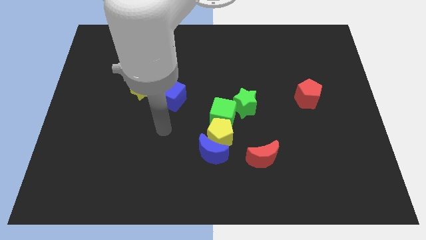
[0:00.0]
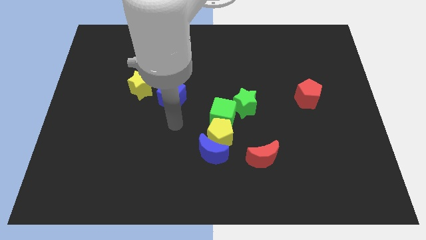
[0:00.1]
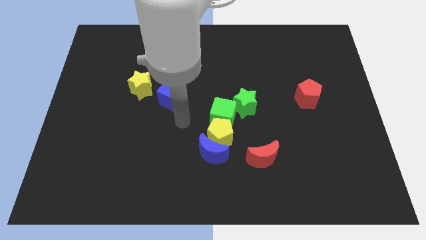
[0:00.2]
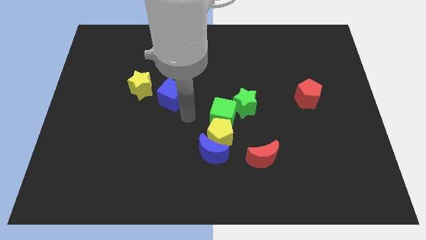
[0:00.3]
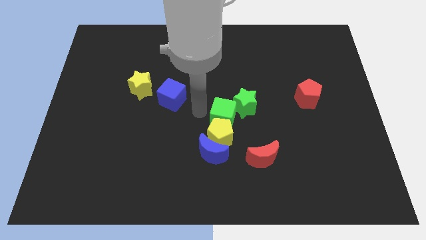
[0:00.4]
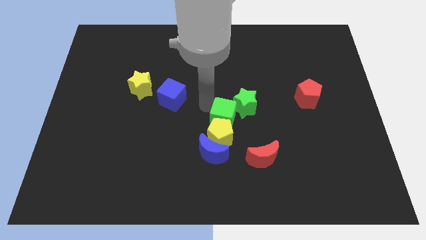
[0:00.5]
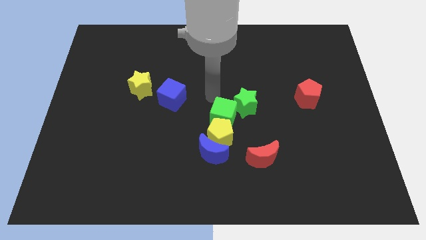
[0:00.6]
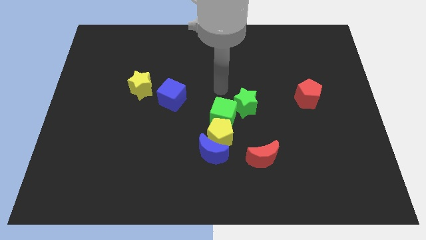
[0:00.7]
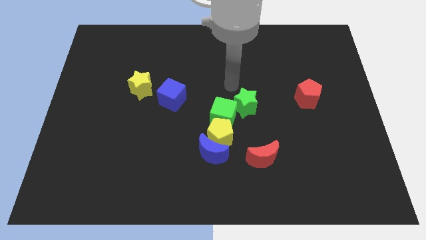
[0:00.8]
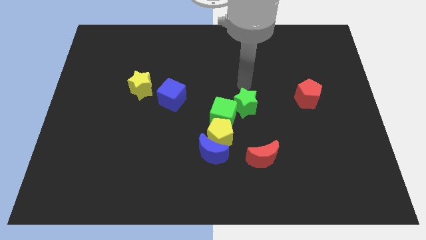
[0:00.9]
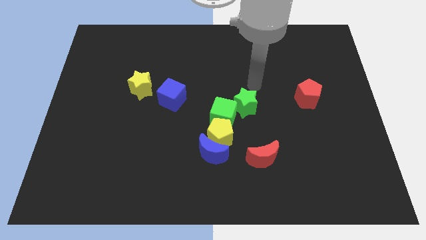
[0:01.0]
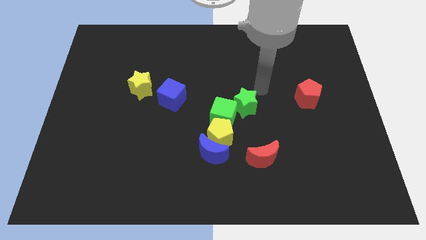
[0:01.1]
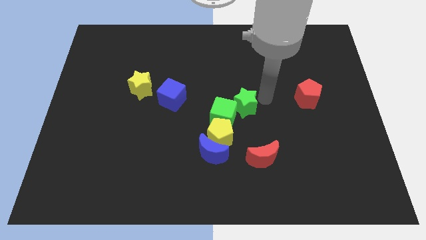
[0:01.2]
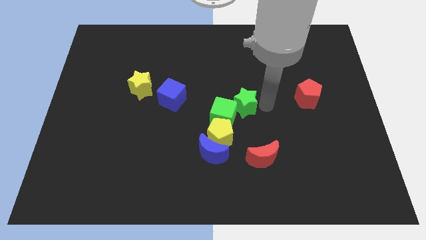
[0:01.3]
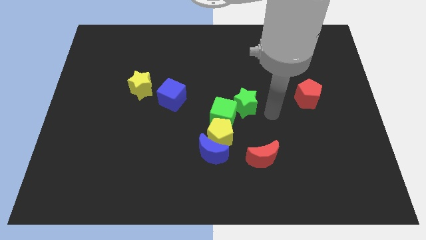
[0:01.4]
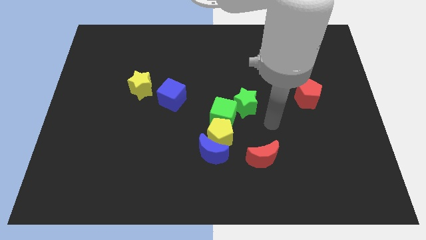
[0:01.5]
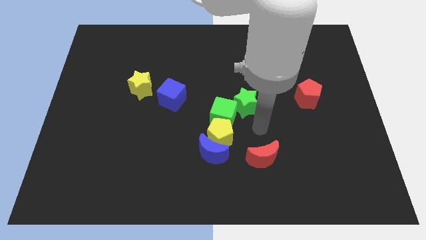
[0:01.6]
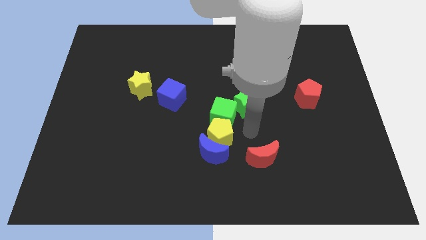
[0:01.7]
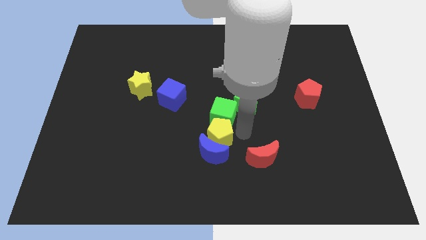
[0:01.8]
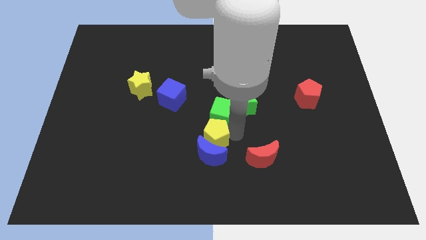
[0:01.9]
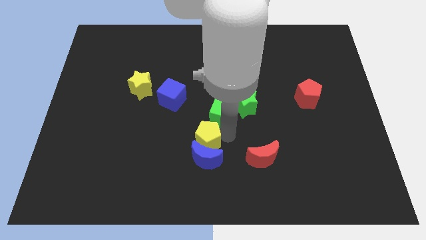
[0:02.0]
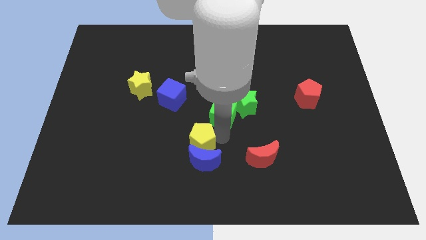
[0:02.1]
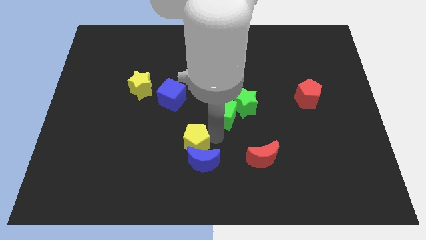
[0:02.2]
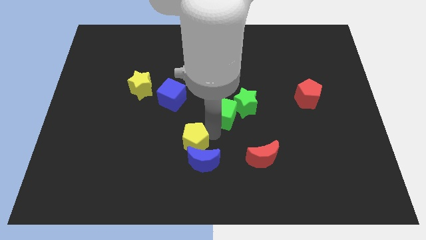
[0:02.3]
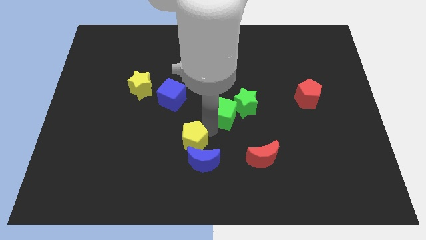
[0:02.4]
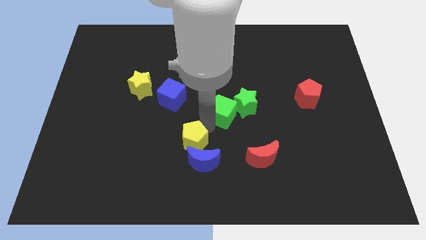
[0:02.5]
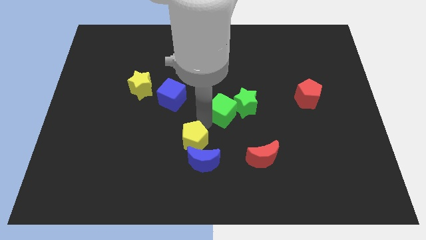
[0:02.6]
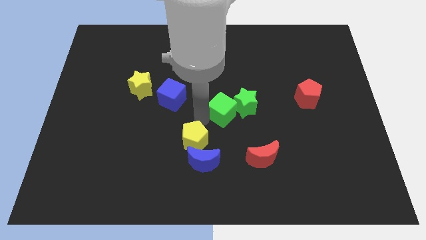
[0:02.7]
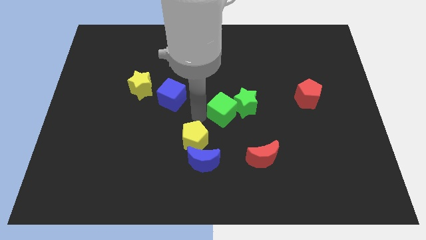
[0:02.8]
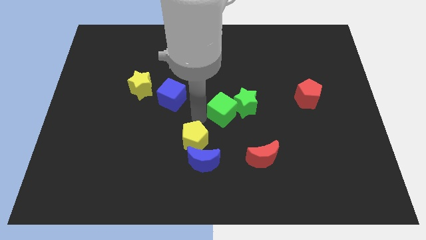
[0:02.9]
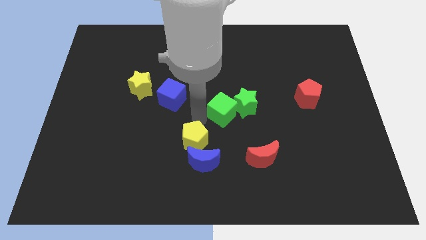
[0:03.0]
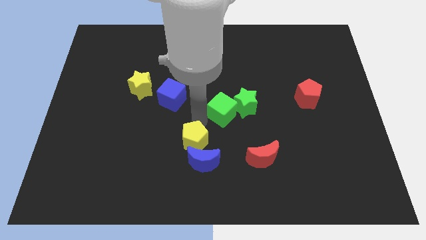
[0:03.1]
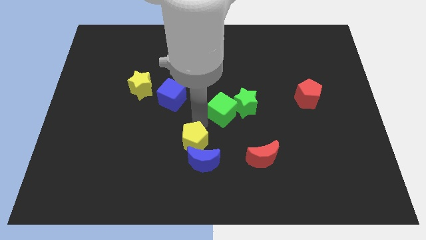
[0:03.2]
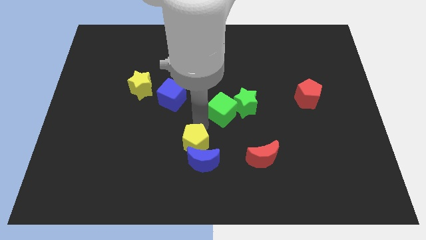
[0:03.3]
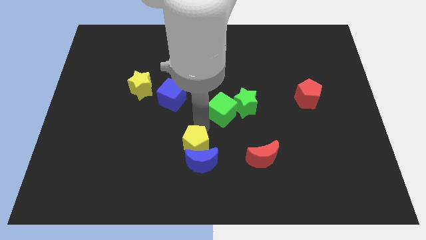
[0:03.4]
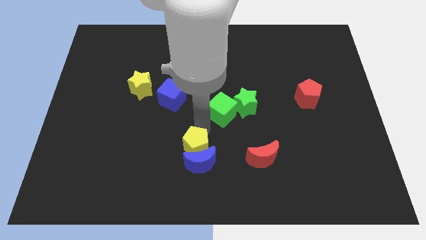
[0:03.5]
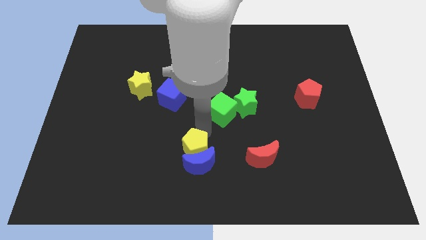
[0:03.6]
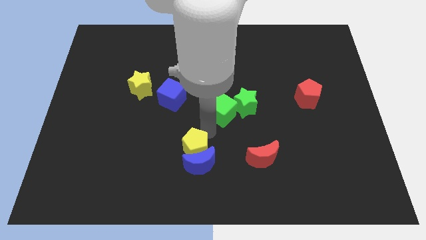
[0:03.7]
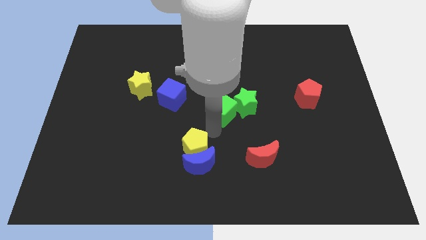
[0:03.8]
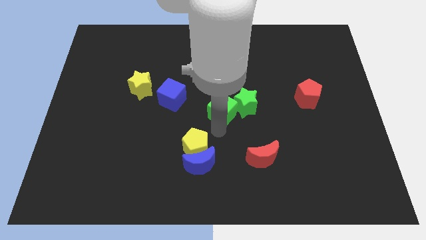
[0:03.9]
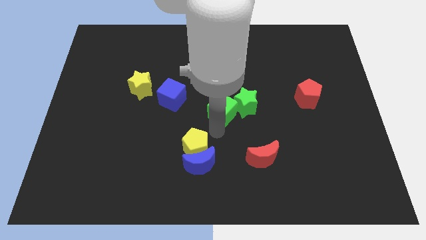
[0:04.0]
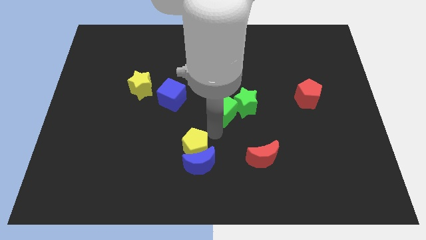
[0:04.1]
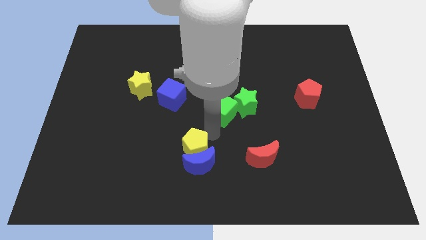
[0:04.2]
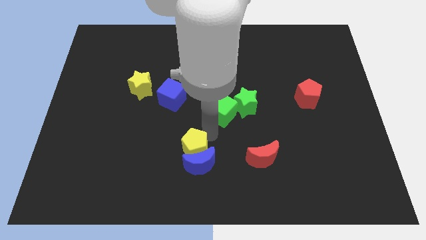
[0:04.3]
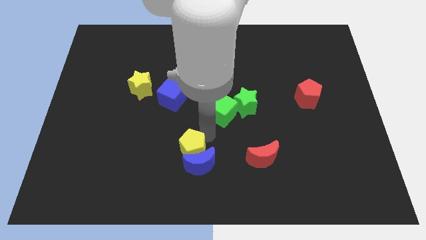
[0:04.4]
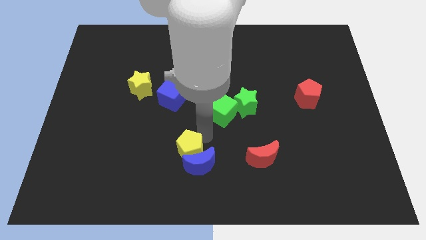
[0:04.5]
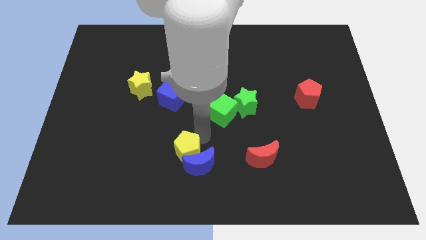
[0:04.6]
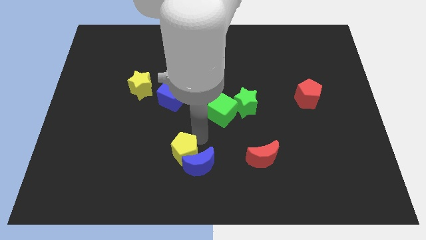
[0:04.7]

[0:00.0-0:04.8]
move the yellow pentagon away from the blue moon, green cube, and green star

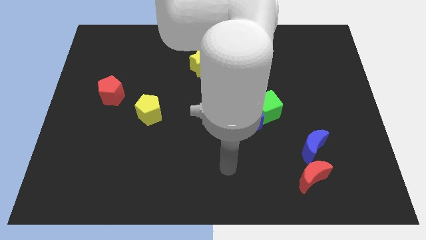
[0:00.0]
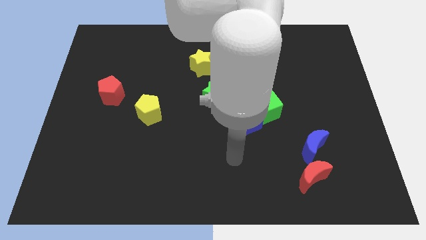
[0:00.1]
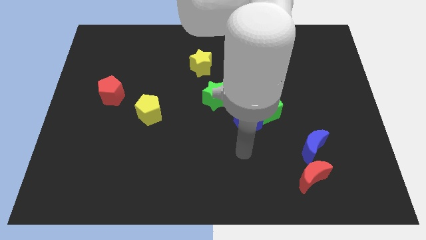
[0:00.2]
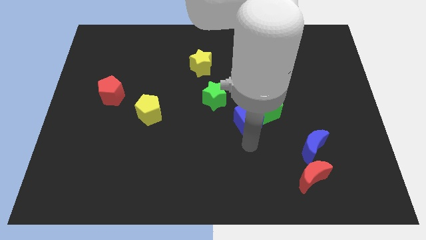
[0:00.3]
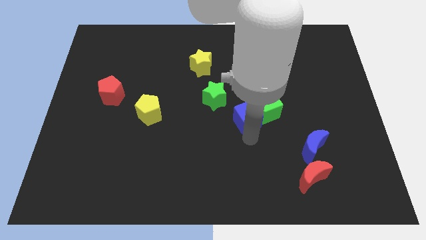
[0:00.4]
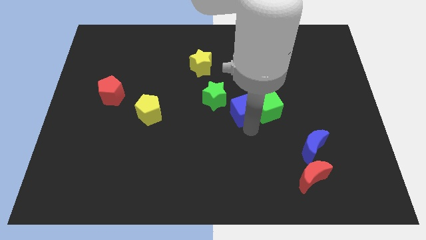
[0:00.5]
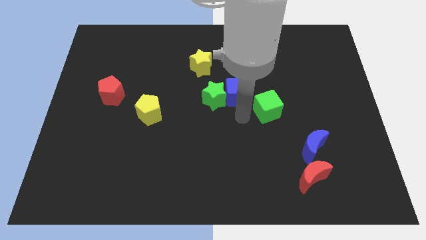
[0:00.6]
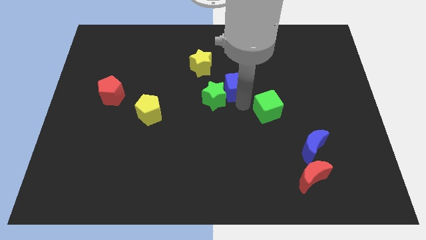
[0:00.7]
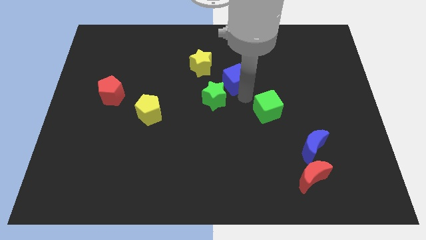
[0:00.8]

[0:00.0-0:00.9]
move the green cube away from the blue cube

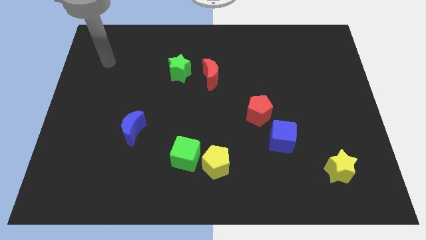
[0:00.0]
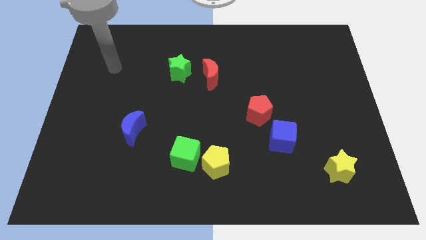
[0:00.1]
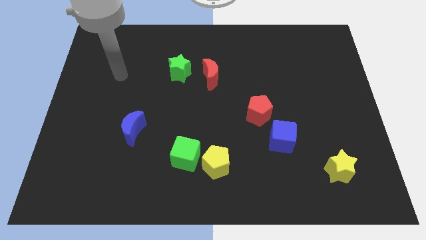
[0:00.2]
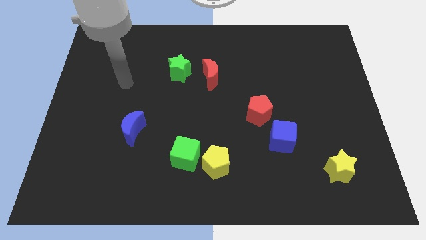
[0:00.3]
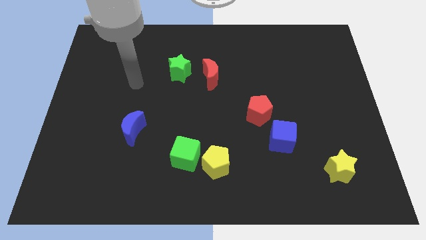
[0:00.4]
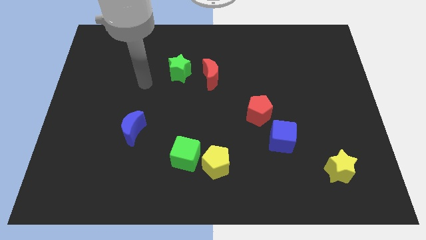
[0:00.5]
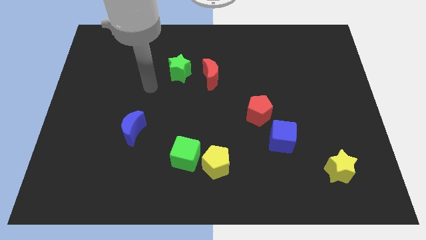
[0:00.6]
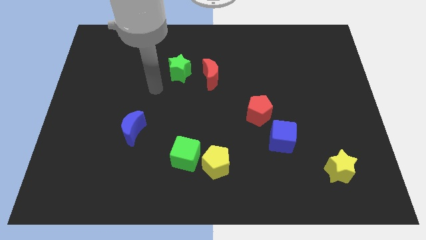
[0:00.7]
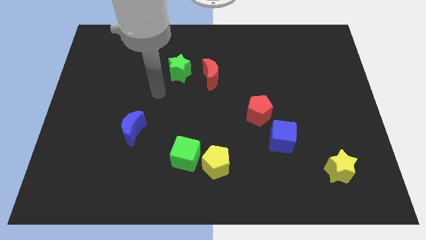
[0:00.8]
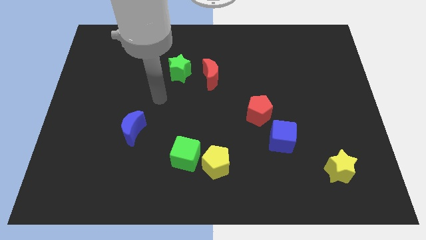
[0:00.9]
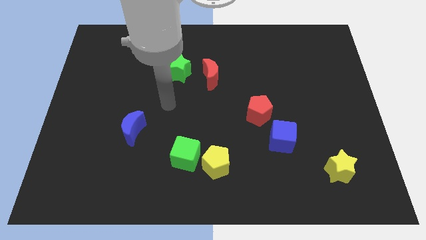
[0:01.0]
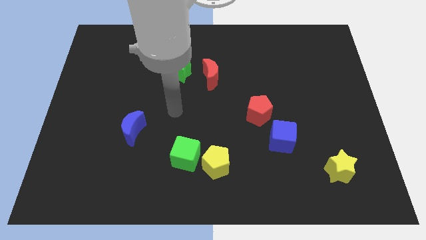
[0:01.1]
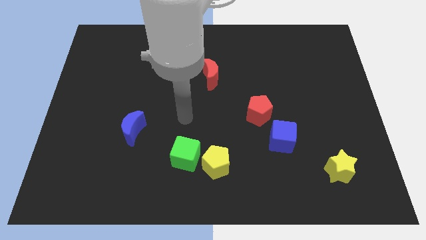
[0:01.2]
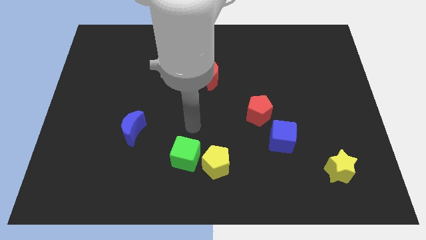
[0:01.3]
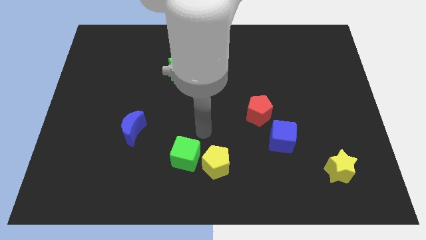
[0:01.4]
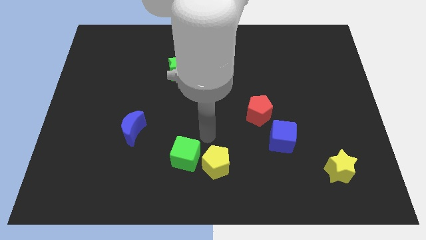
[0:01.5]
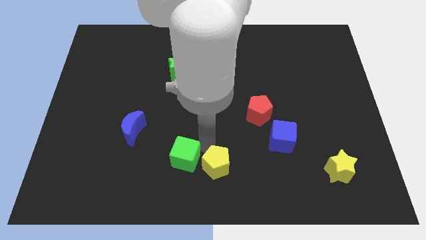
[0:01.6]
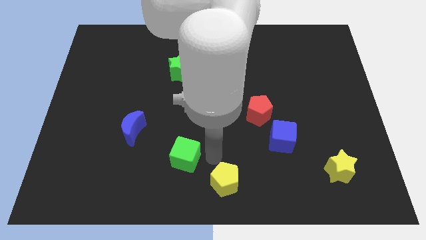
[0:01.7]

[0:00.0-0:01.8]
move the green cube away from the yellow pentagon

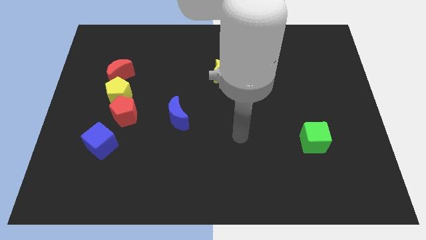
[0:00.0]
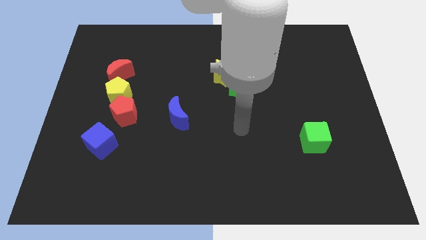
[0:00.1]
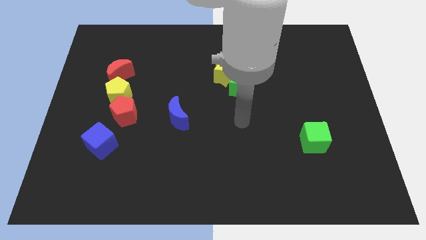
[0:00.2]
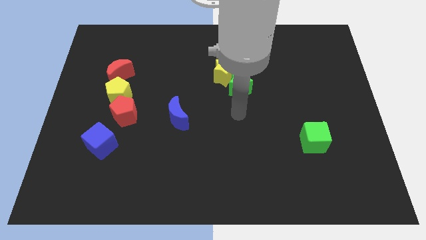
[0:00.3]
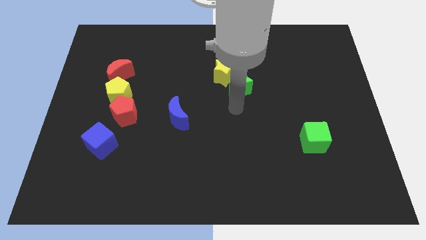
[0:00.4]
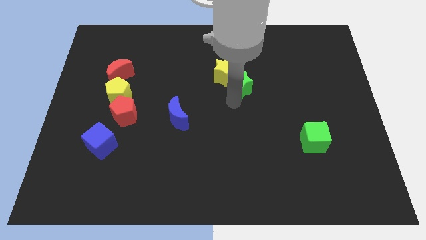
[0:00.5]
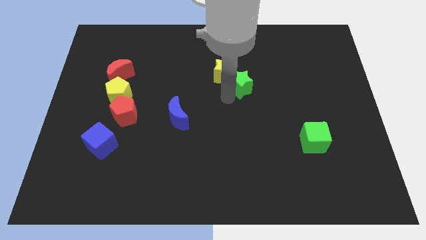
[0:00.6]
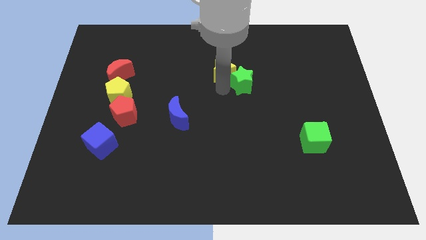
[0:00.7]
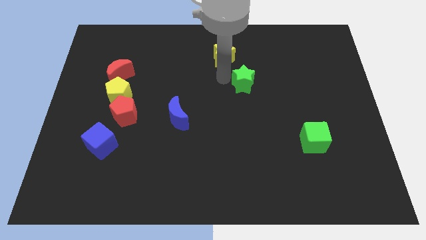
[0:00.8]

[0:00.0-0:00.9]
move the green star away from the yellow star

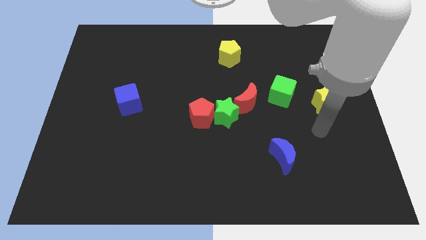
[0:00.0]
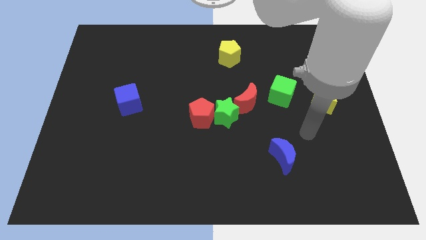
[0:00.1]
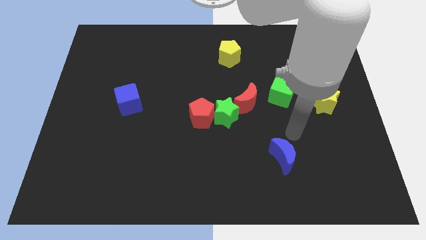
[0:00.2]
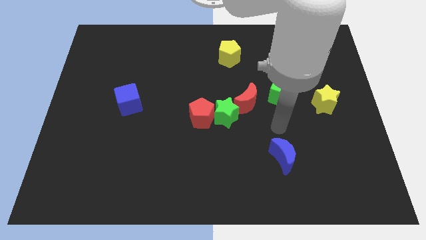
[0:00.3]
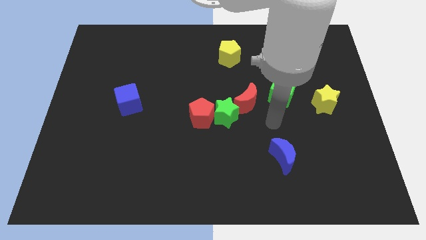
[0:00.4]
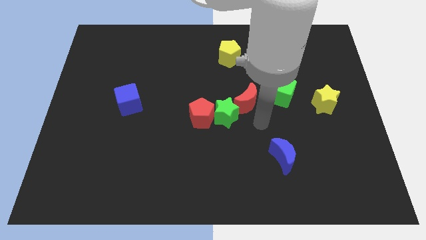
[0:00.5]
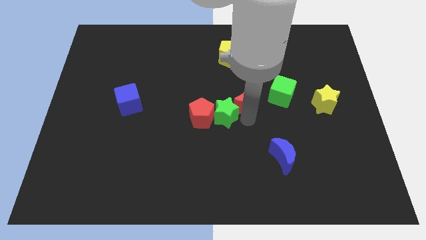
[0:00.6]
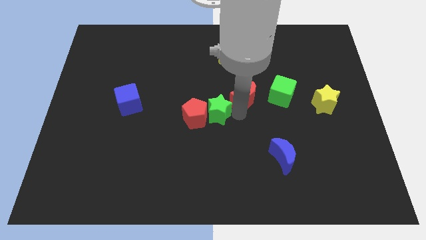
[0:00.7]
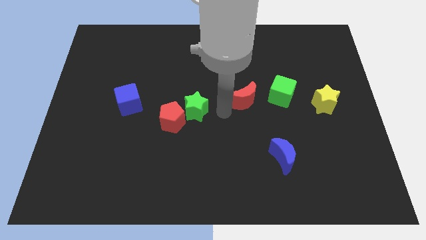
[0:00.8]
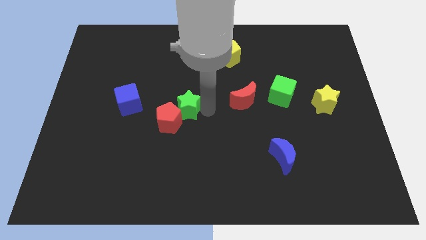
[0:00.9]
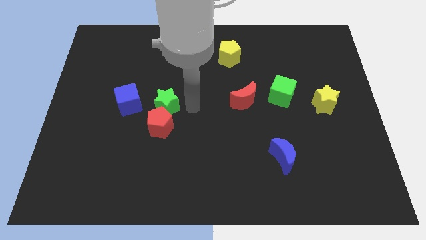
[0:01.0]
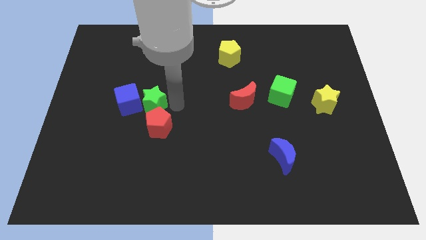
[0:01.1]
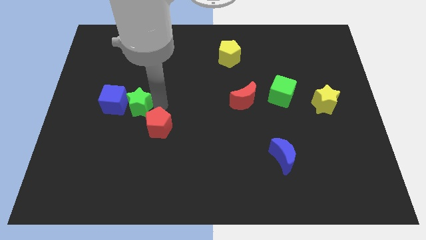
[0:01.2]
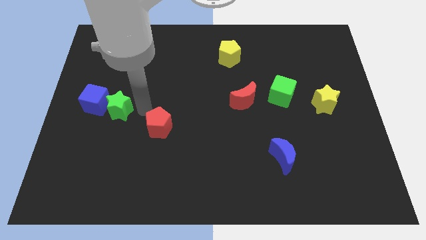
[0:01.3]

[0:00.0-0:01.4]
move the red pentagon away from the green star
